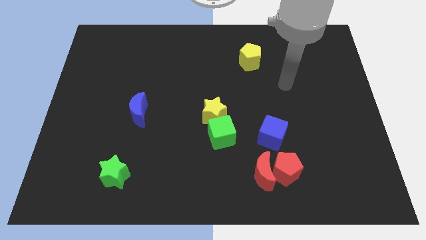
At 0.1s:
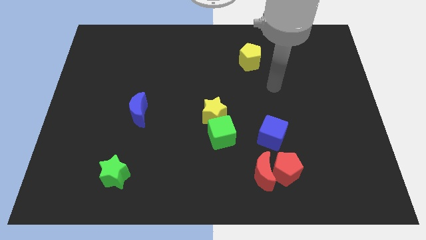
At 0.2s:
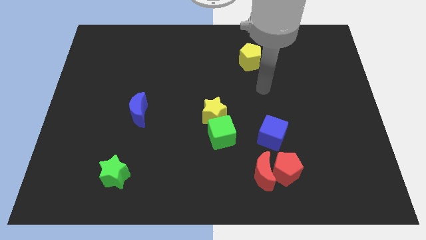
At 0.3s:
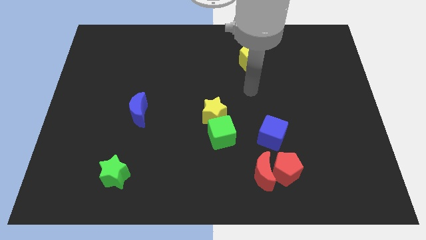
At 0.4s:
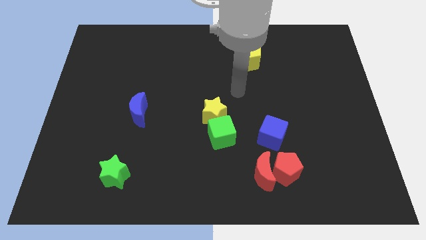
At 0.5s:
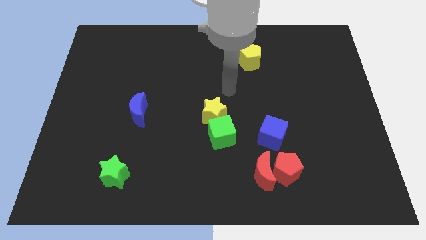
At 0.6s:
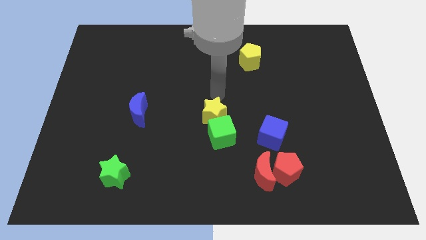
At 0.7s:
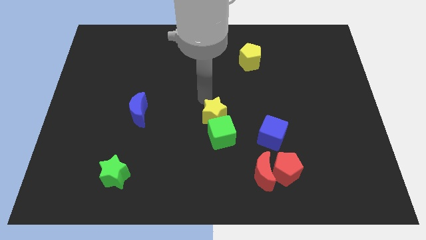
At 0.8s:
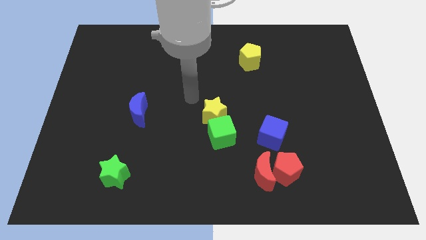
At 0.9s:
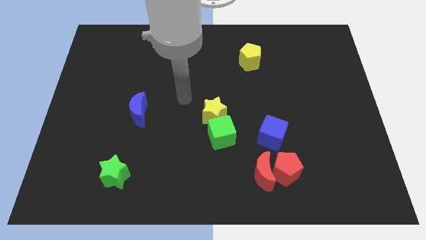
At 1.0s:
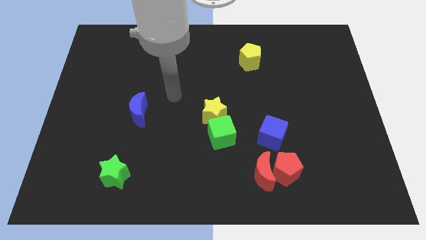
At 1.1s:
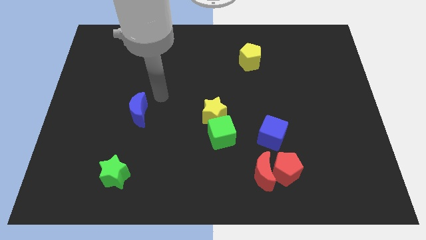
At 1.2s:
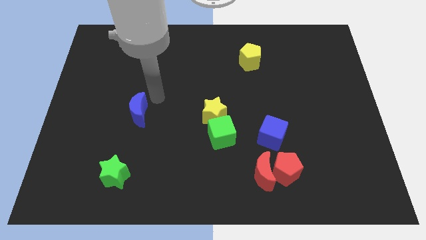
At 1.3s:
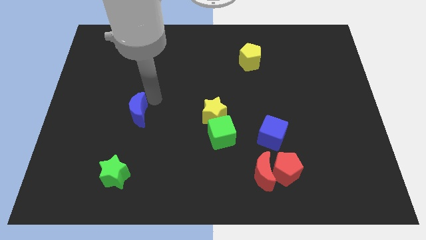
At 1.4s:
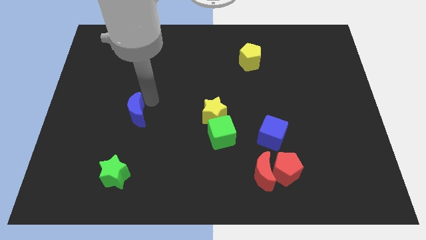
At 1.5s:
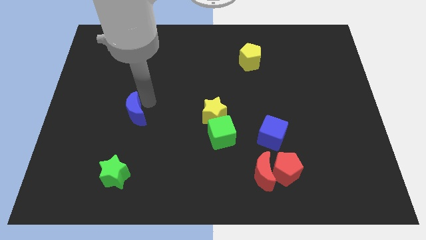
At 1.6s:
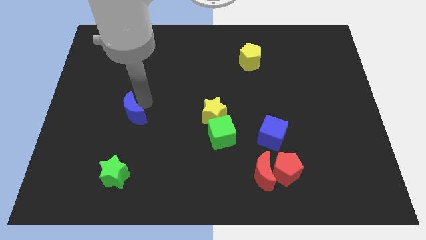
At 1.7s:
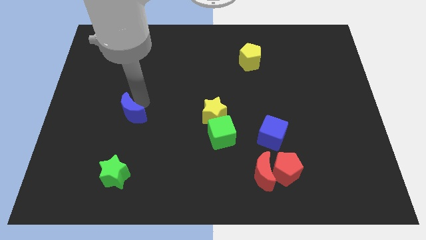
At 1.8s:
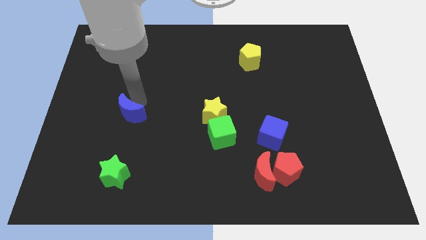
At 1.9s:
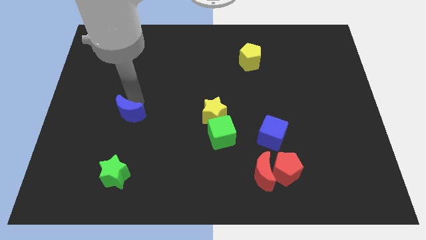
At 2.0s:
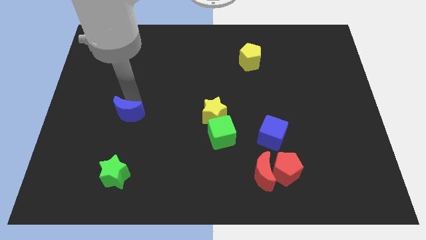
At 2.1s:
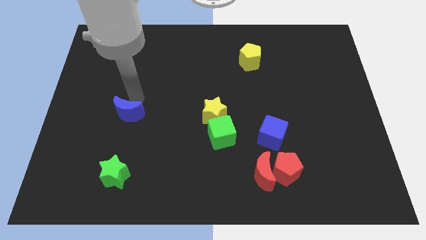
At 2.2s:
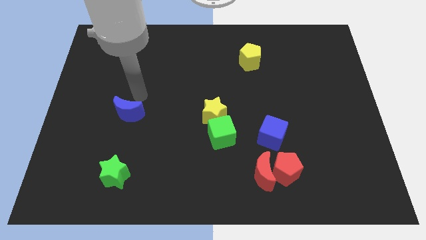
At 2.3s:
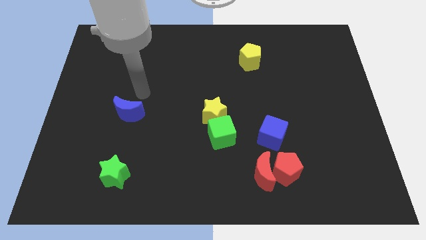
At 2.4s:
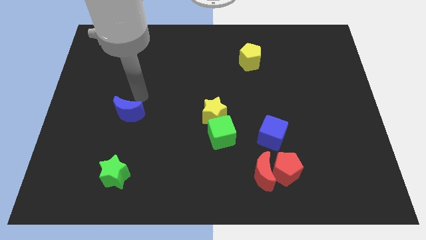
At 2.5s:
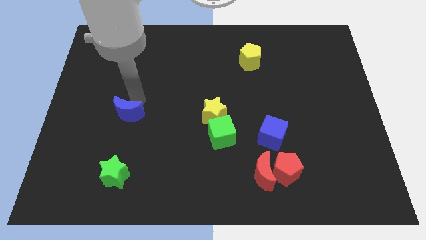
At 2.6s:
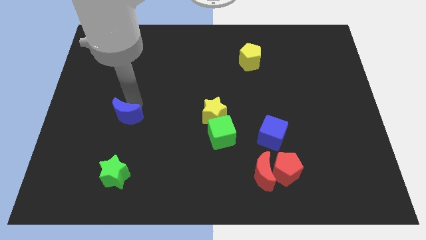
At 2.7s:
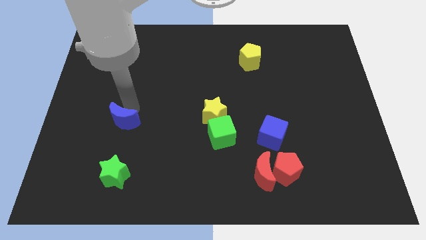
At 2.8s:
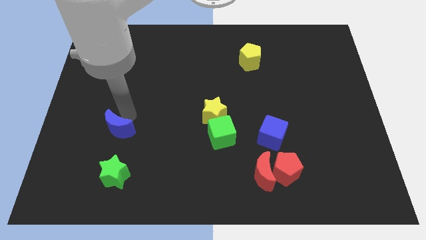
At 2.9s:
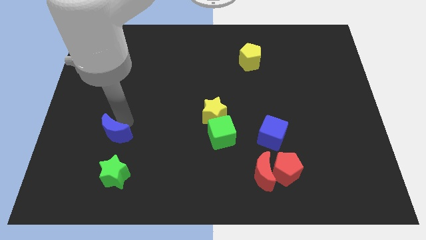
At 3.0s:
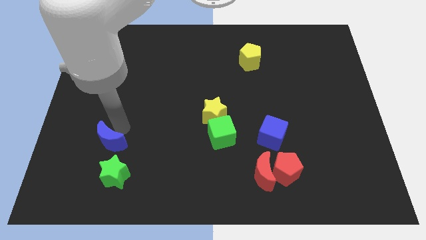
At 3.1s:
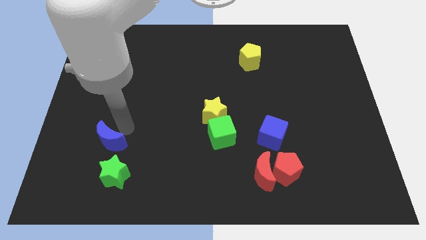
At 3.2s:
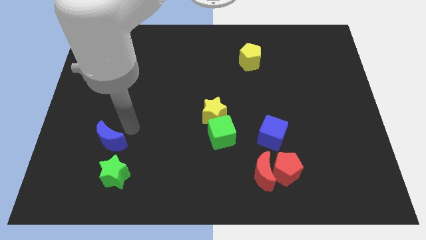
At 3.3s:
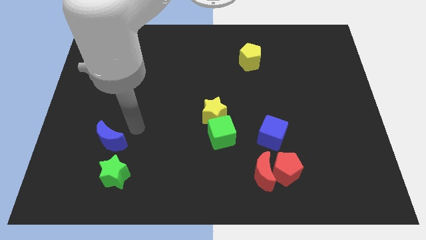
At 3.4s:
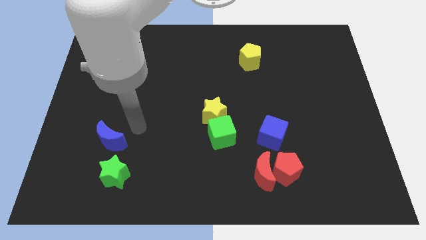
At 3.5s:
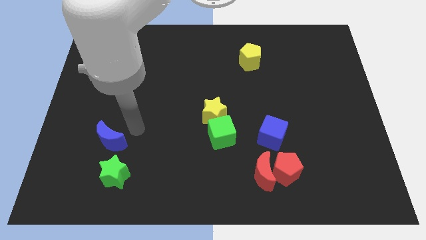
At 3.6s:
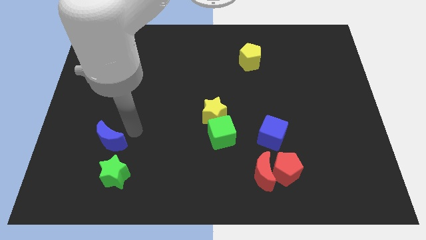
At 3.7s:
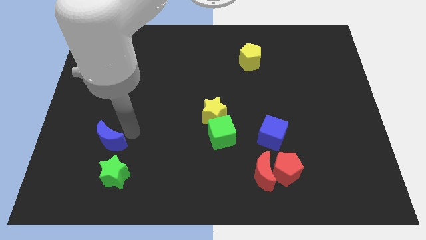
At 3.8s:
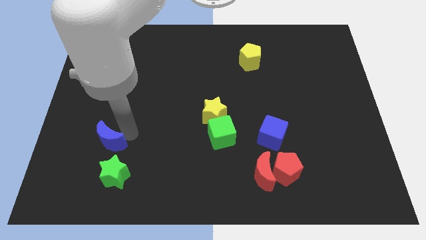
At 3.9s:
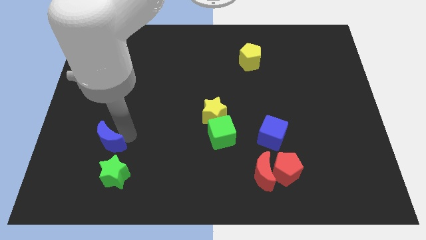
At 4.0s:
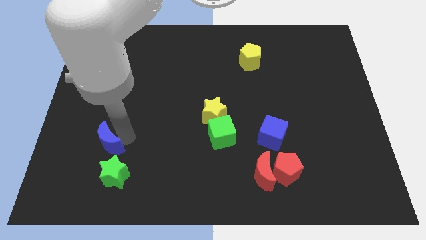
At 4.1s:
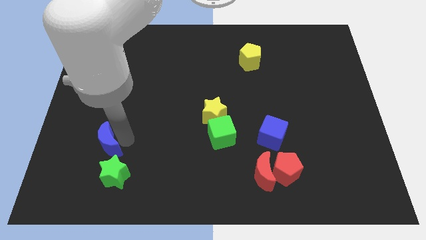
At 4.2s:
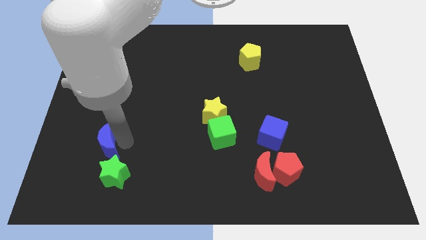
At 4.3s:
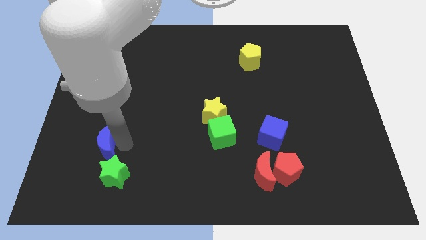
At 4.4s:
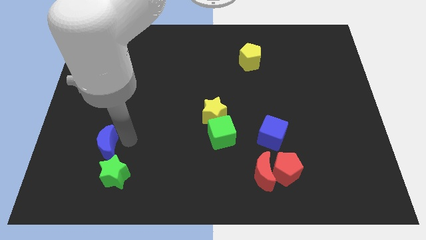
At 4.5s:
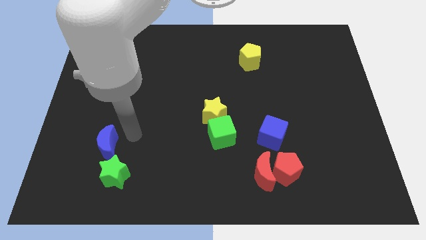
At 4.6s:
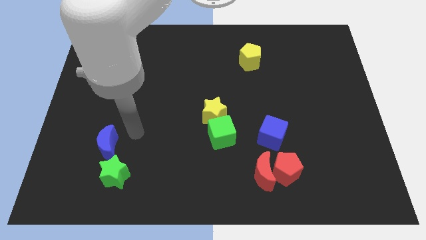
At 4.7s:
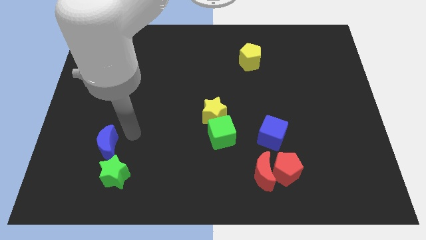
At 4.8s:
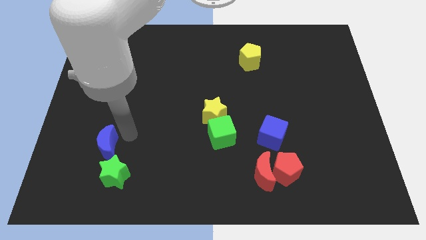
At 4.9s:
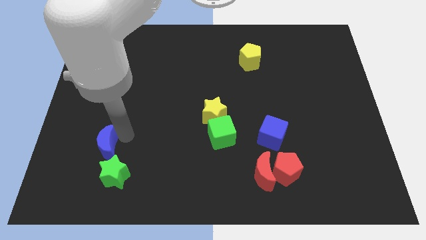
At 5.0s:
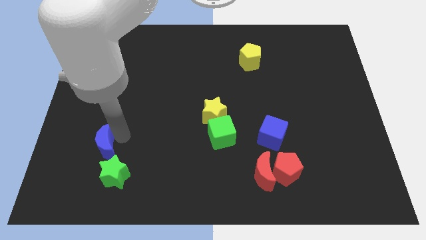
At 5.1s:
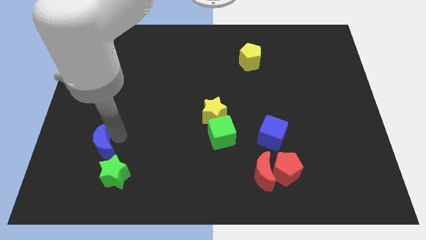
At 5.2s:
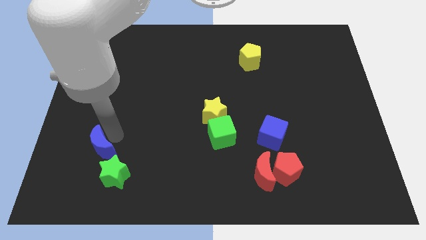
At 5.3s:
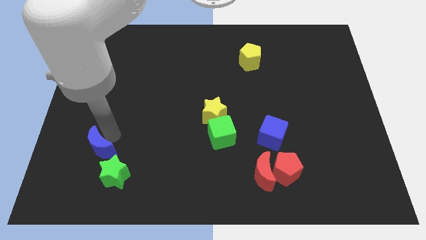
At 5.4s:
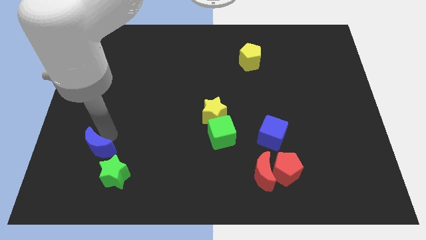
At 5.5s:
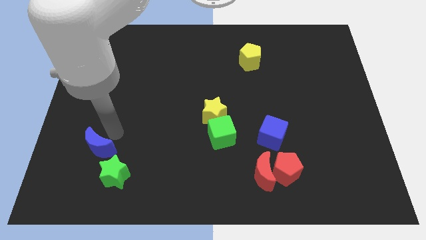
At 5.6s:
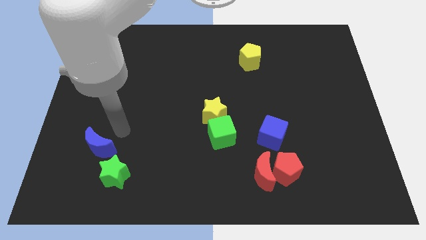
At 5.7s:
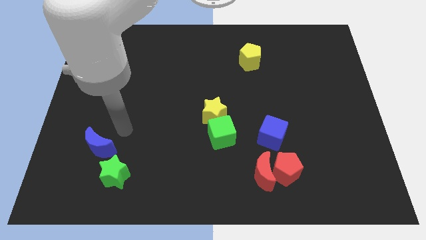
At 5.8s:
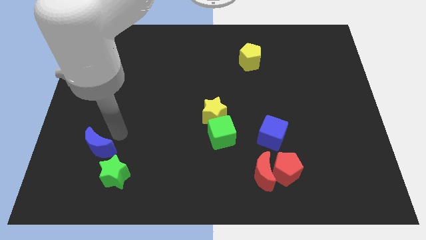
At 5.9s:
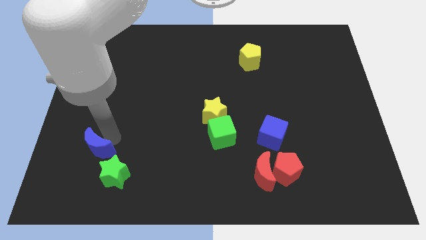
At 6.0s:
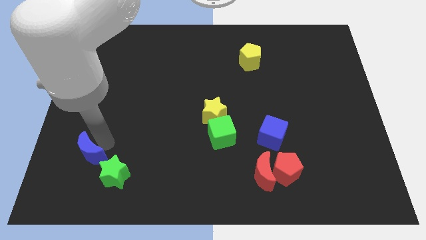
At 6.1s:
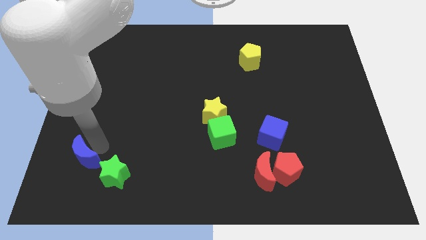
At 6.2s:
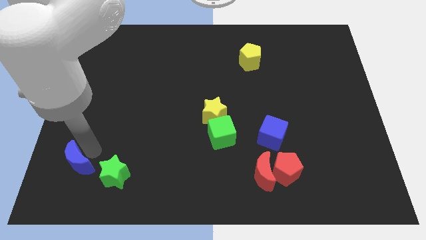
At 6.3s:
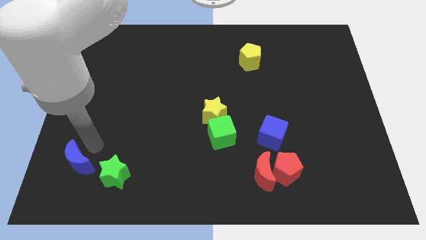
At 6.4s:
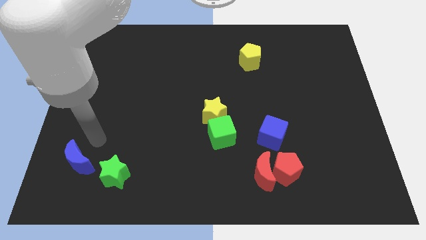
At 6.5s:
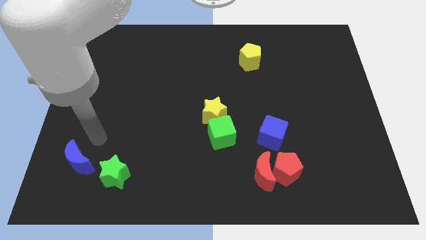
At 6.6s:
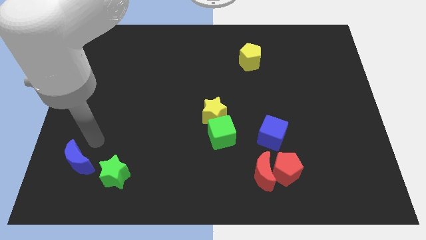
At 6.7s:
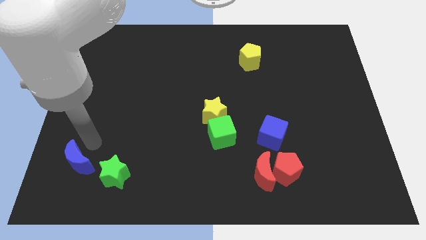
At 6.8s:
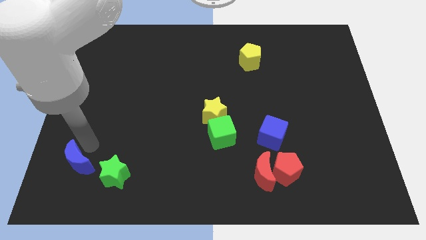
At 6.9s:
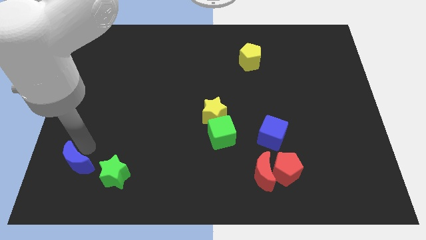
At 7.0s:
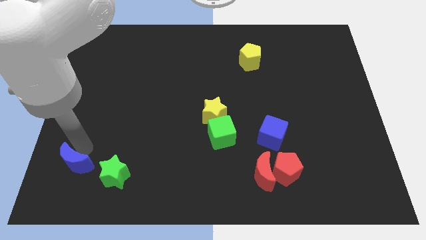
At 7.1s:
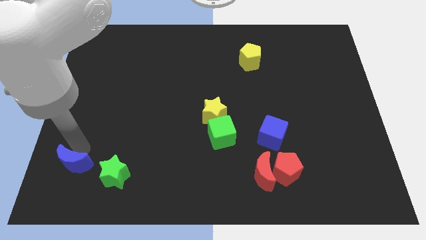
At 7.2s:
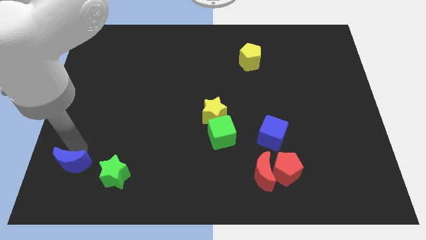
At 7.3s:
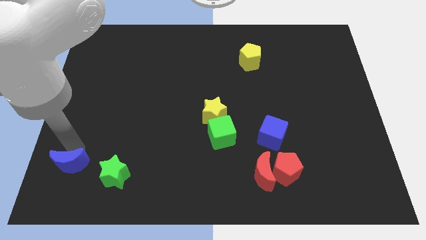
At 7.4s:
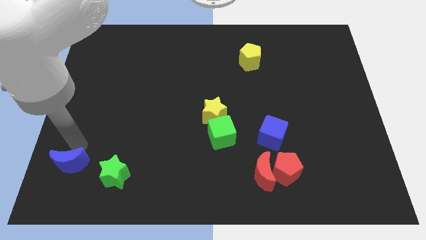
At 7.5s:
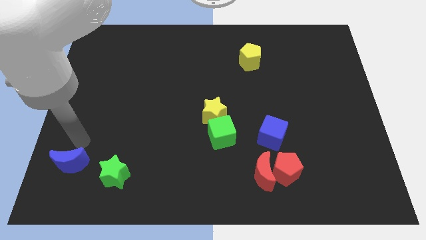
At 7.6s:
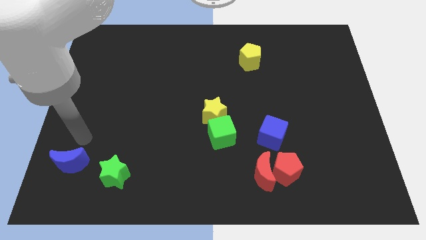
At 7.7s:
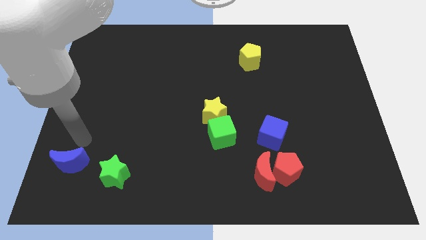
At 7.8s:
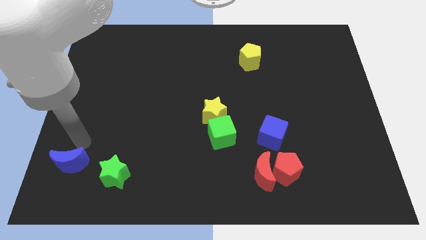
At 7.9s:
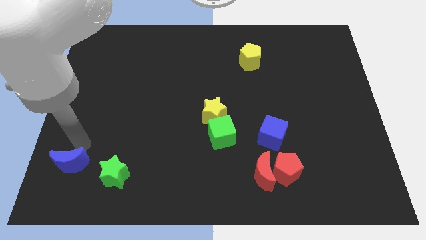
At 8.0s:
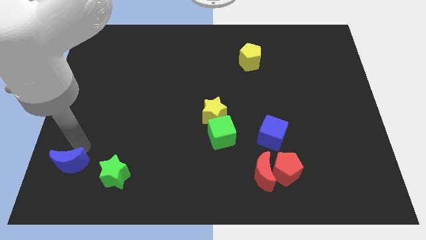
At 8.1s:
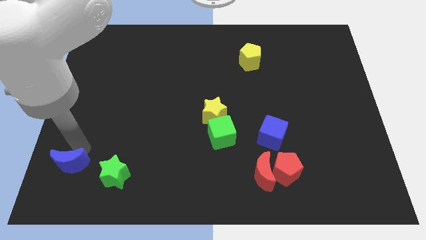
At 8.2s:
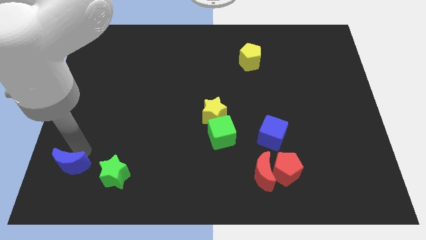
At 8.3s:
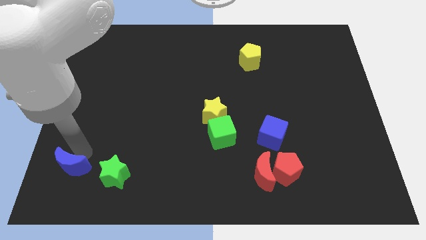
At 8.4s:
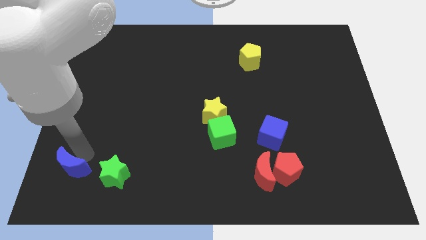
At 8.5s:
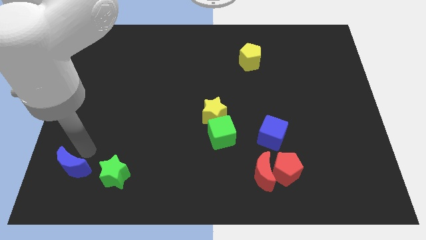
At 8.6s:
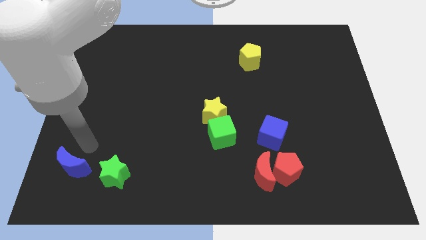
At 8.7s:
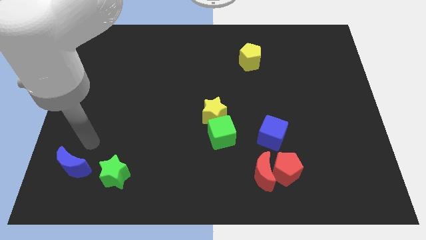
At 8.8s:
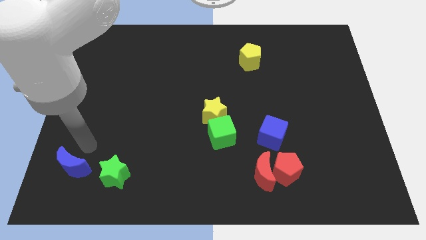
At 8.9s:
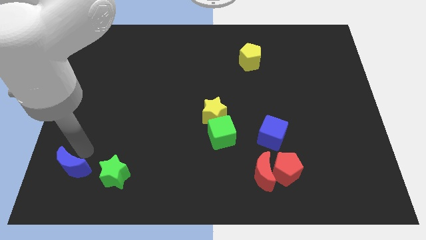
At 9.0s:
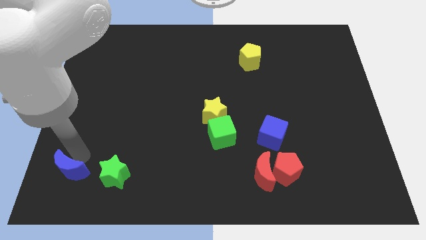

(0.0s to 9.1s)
put the blue moon to the bottom left
